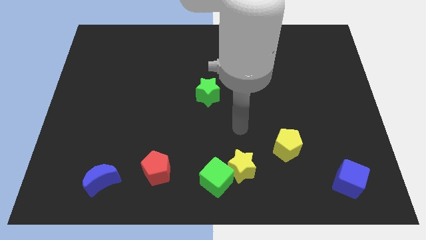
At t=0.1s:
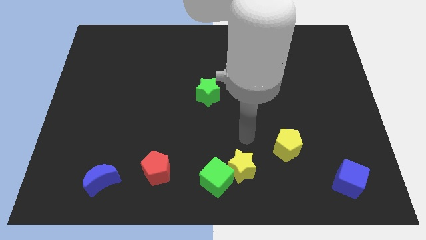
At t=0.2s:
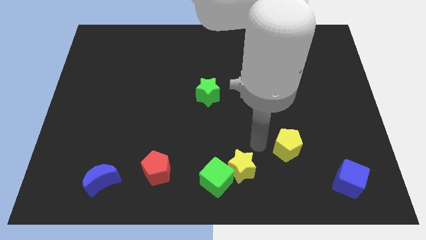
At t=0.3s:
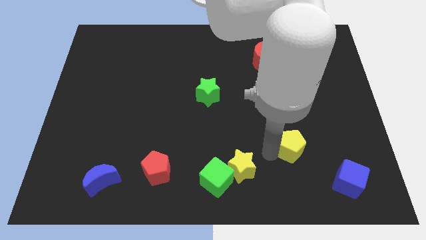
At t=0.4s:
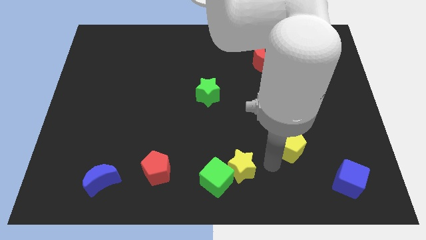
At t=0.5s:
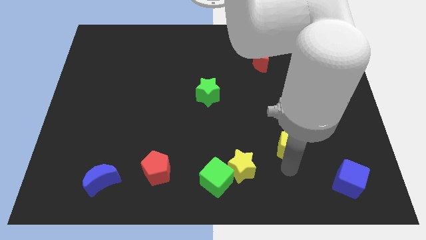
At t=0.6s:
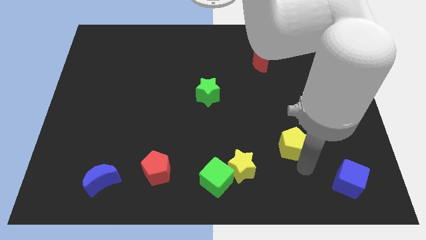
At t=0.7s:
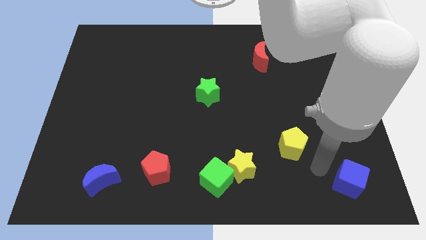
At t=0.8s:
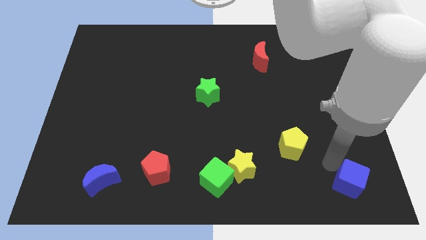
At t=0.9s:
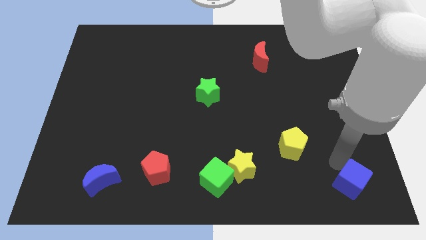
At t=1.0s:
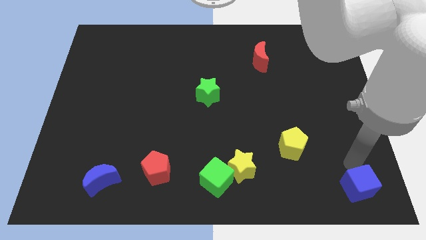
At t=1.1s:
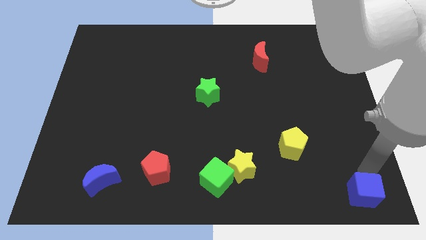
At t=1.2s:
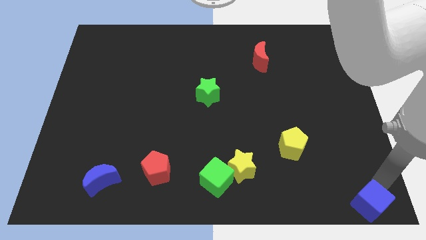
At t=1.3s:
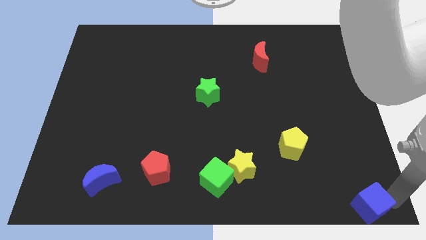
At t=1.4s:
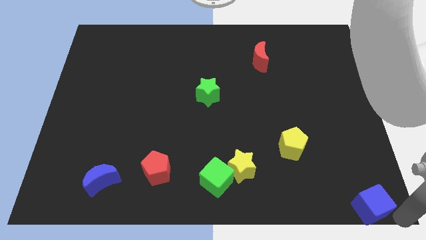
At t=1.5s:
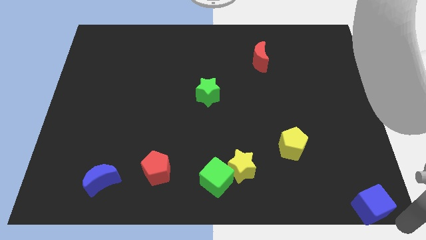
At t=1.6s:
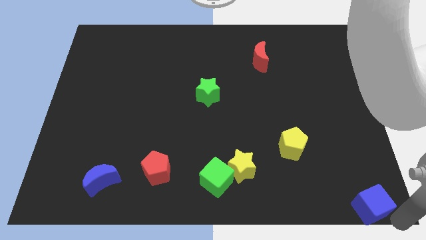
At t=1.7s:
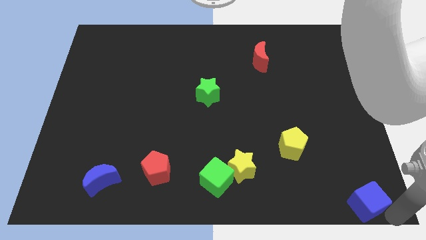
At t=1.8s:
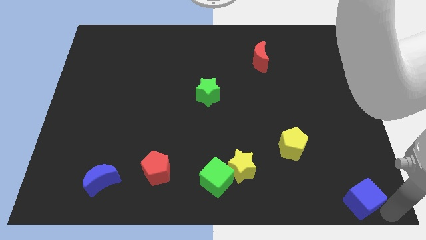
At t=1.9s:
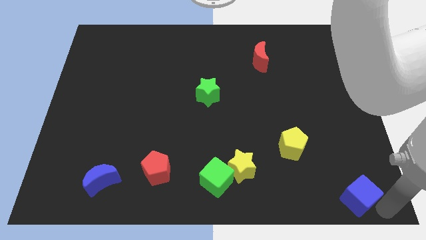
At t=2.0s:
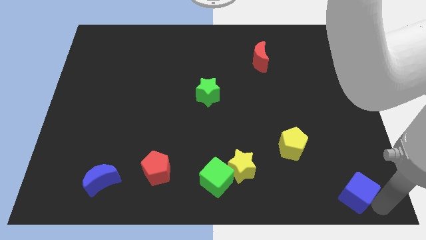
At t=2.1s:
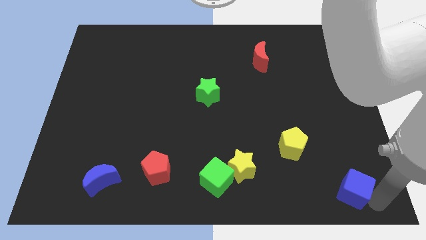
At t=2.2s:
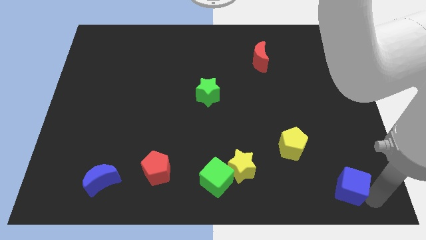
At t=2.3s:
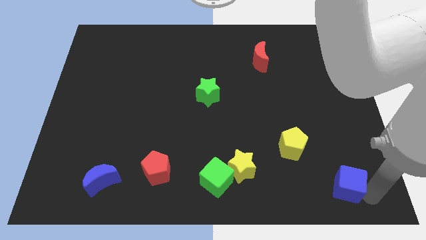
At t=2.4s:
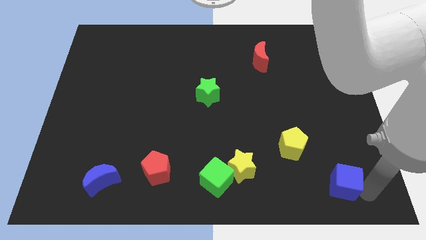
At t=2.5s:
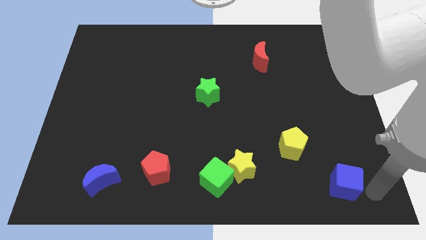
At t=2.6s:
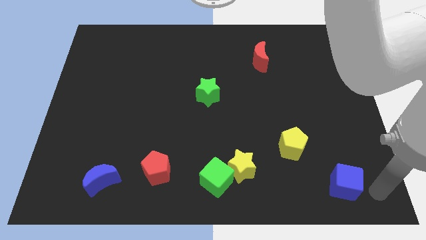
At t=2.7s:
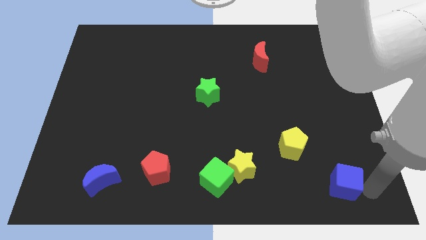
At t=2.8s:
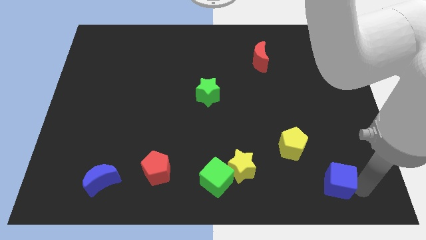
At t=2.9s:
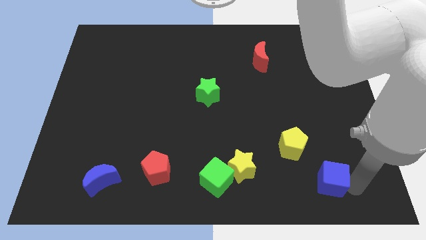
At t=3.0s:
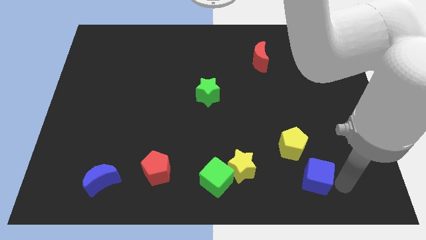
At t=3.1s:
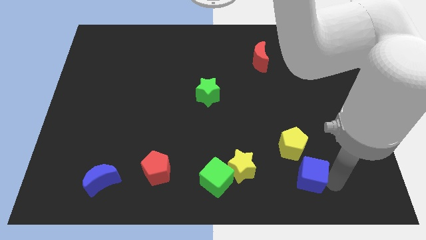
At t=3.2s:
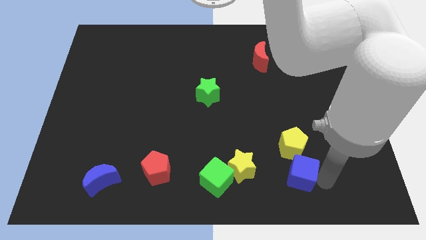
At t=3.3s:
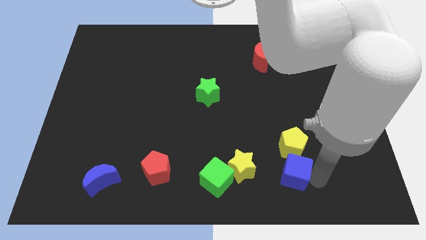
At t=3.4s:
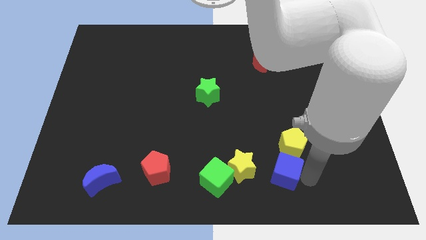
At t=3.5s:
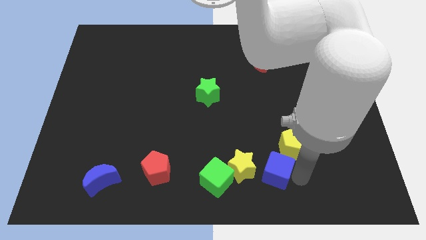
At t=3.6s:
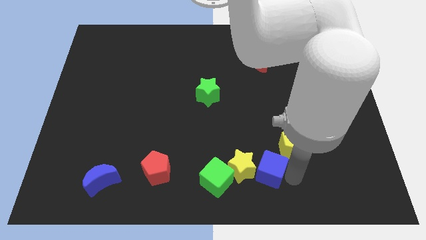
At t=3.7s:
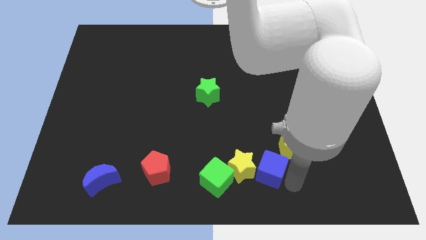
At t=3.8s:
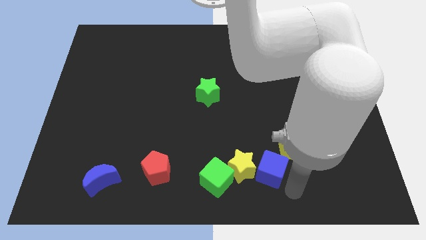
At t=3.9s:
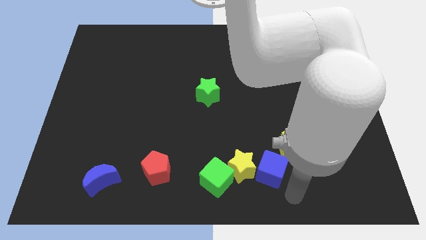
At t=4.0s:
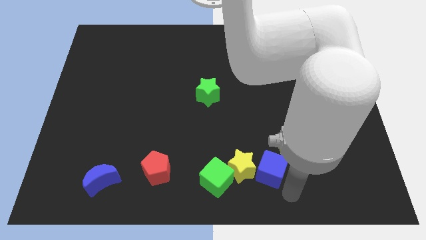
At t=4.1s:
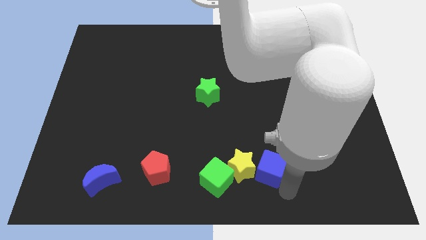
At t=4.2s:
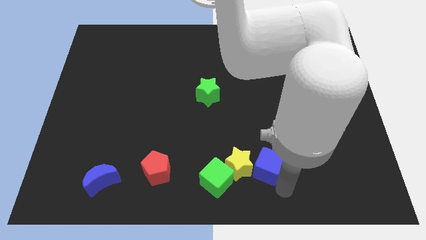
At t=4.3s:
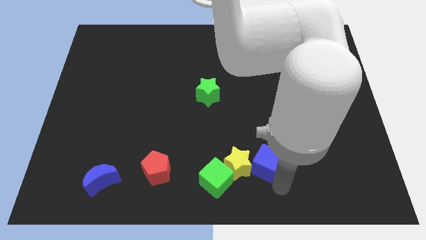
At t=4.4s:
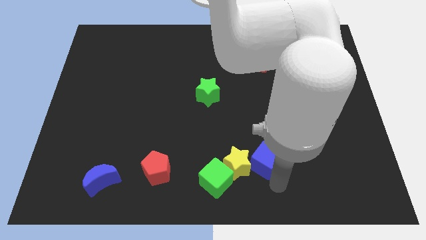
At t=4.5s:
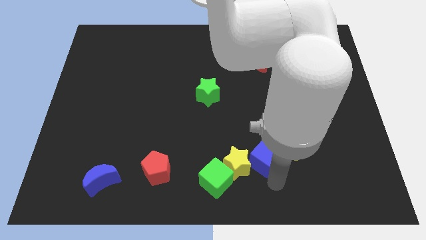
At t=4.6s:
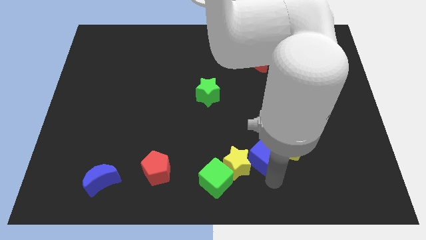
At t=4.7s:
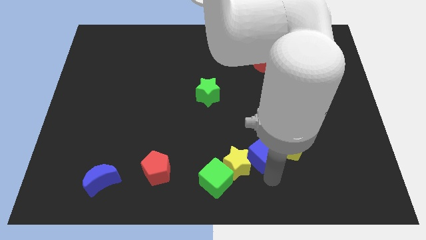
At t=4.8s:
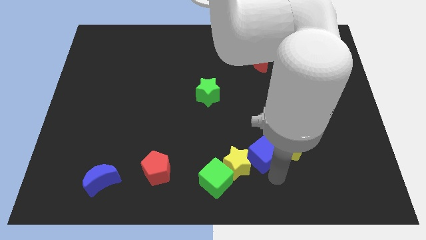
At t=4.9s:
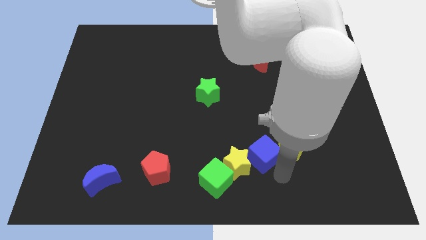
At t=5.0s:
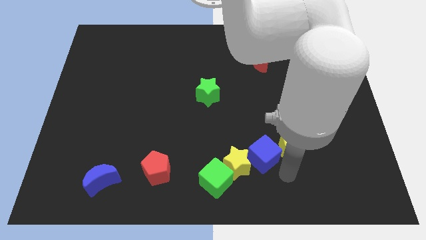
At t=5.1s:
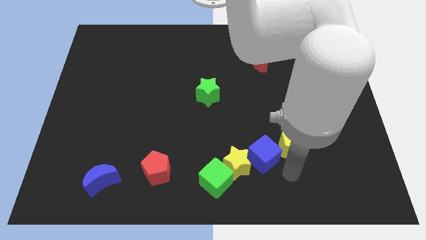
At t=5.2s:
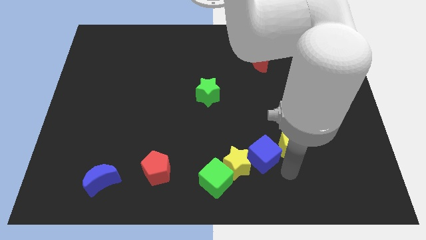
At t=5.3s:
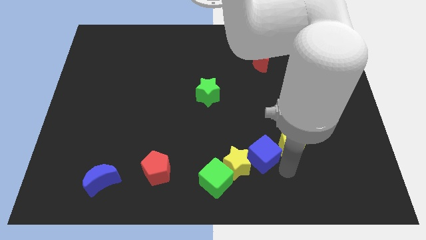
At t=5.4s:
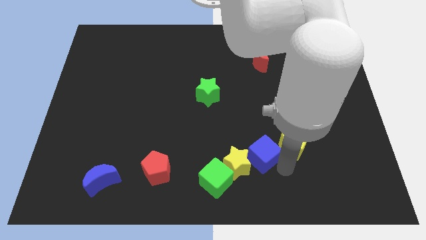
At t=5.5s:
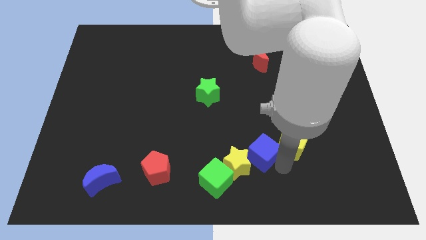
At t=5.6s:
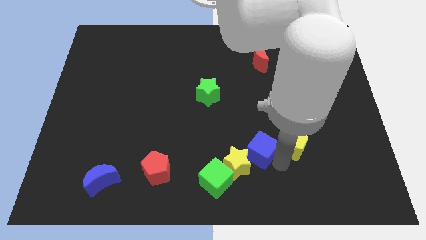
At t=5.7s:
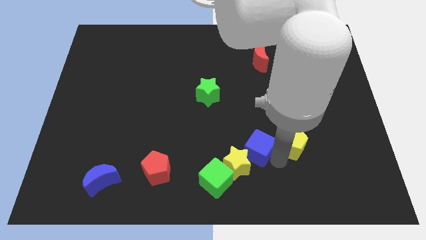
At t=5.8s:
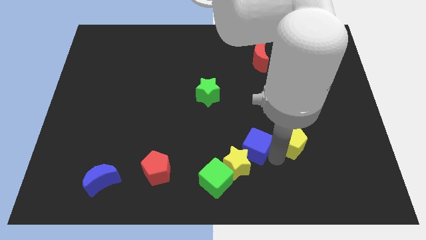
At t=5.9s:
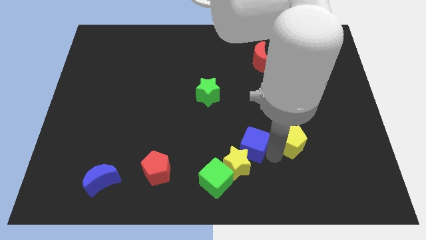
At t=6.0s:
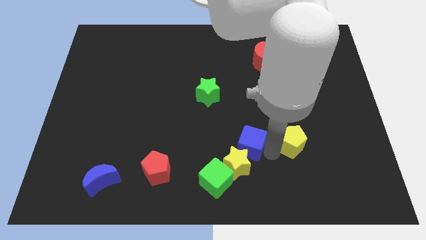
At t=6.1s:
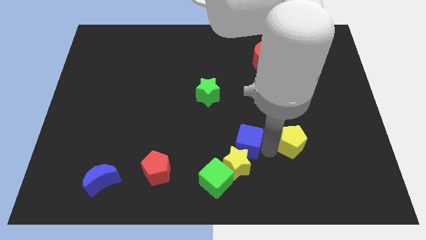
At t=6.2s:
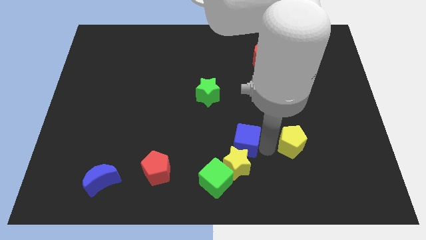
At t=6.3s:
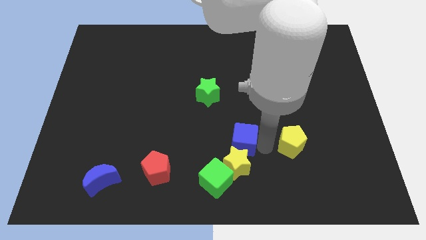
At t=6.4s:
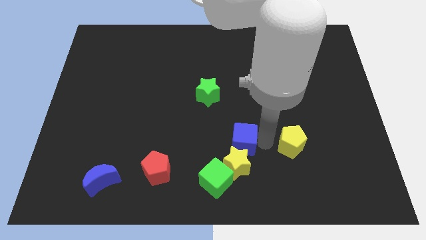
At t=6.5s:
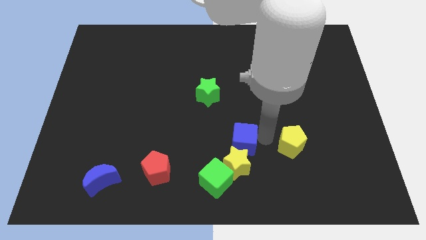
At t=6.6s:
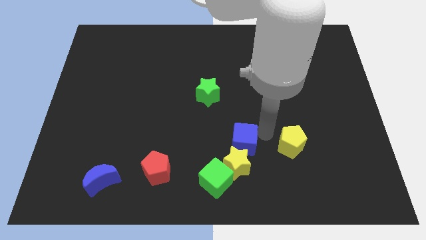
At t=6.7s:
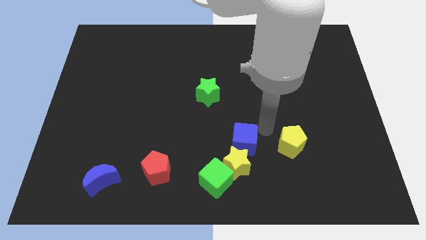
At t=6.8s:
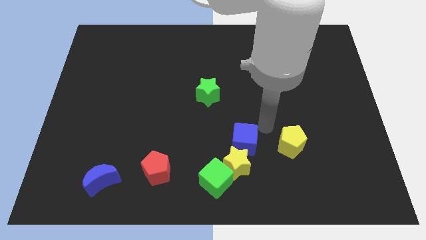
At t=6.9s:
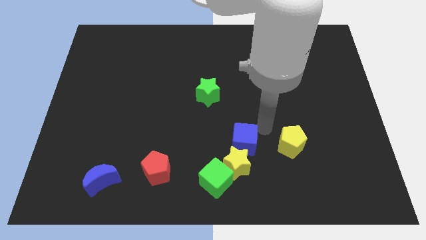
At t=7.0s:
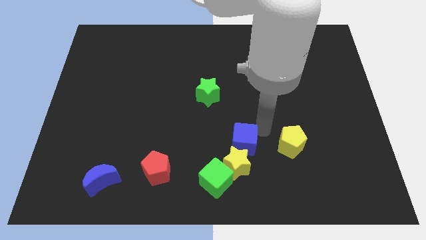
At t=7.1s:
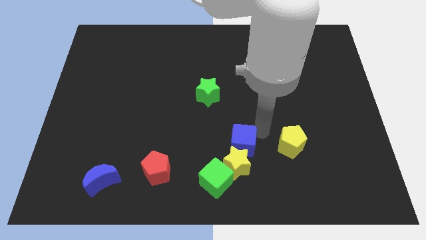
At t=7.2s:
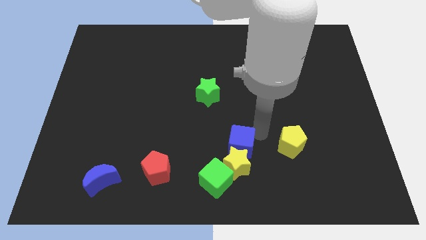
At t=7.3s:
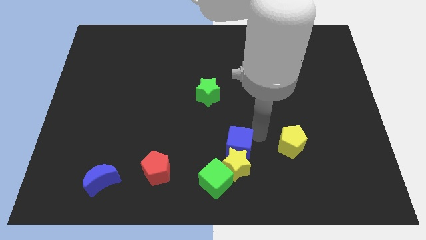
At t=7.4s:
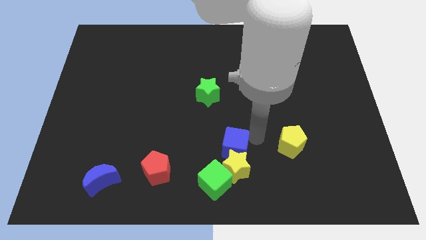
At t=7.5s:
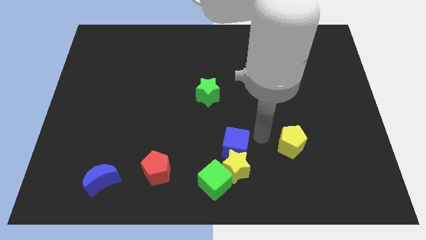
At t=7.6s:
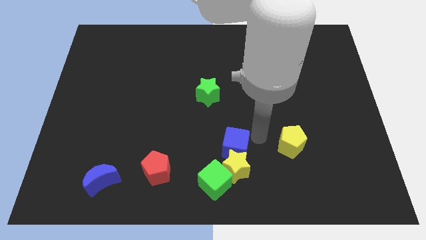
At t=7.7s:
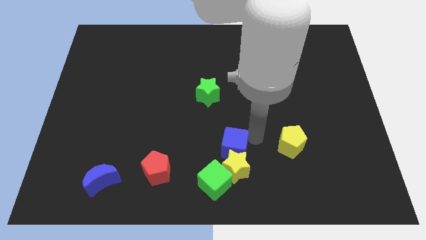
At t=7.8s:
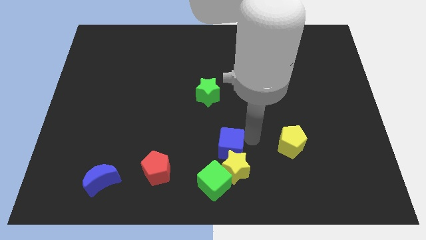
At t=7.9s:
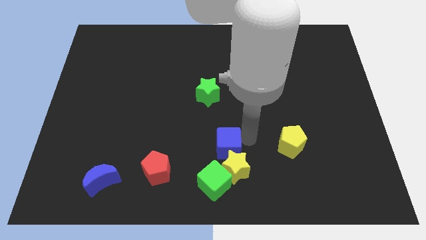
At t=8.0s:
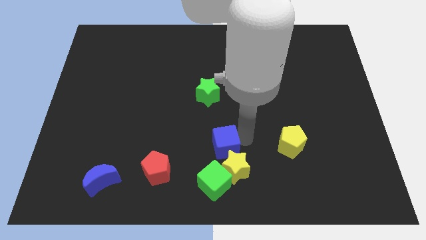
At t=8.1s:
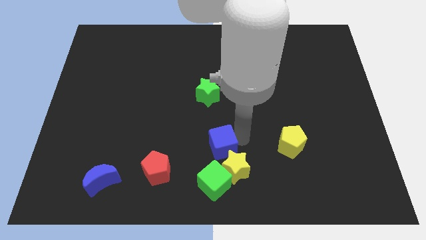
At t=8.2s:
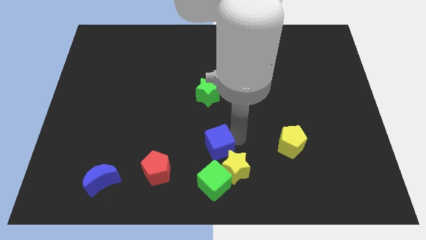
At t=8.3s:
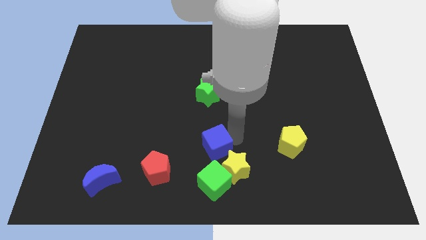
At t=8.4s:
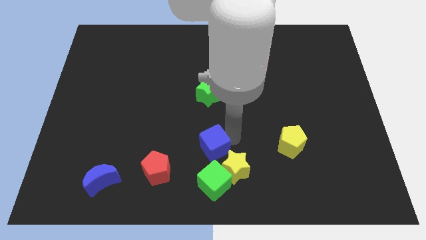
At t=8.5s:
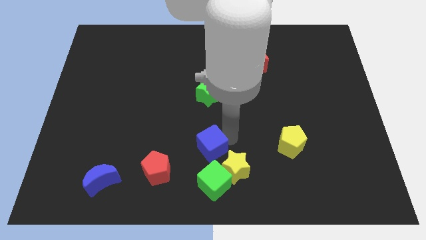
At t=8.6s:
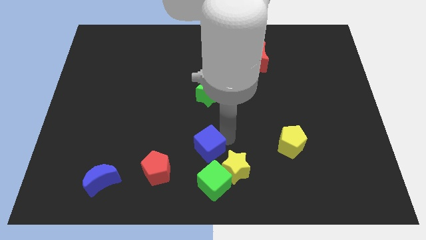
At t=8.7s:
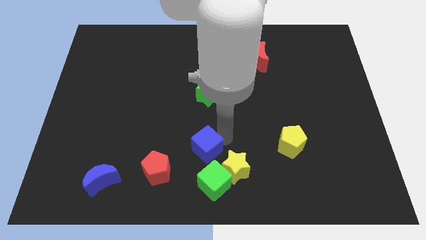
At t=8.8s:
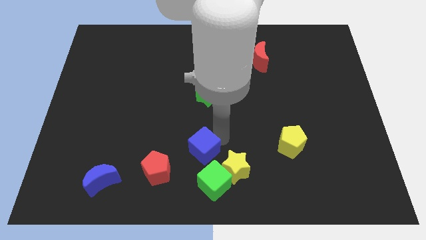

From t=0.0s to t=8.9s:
put the blue cube to the left side of the yellow star
